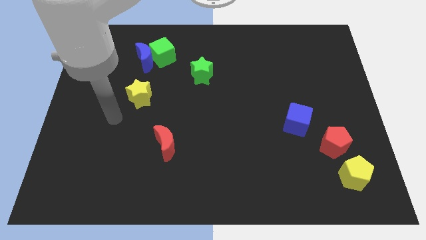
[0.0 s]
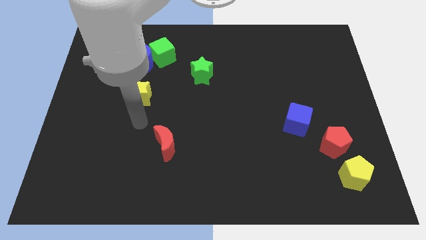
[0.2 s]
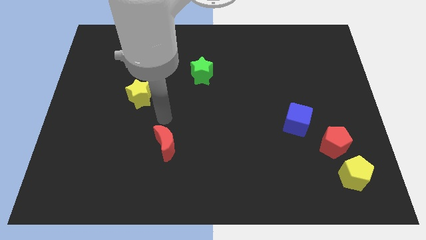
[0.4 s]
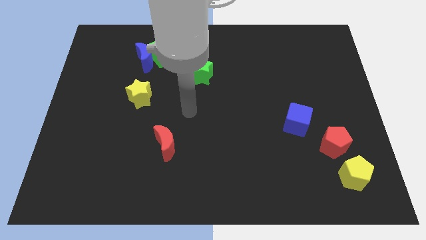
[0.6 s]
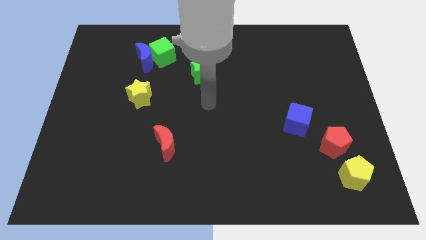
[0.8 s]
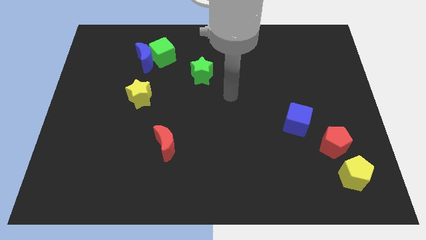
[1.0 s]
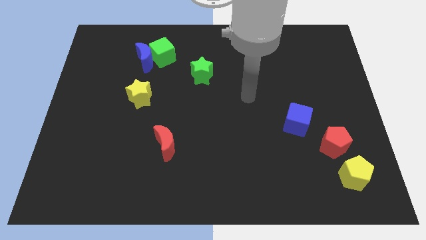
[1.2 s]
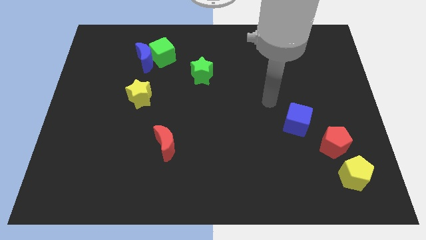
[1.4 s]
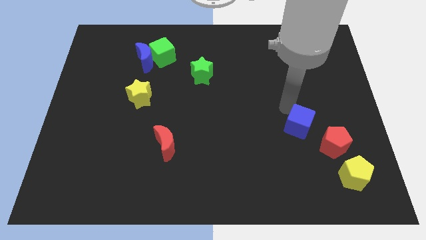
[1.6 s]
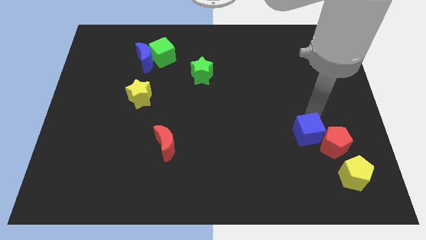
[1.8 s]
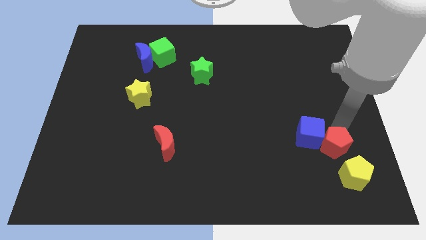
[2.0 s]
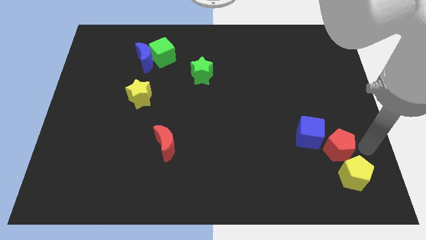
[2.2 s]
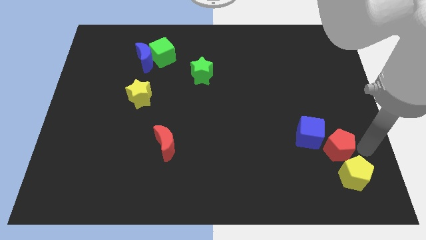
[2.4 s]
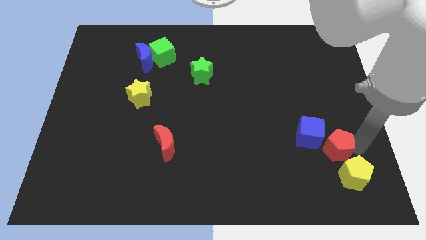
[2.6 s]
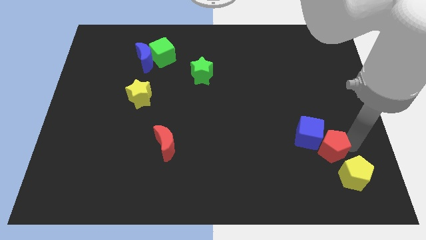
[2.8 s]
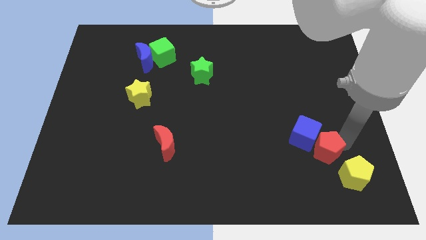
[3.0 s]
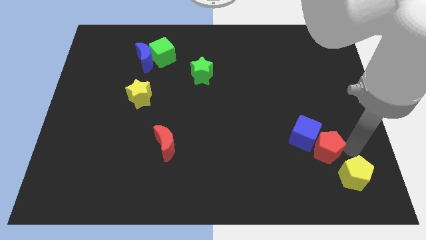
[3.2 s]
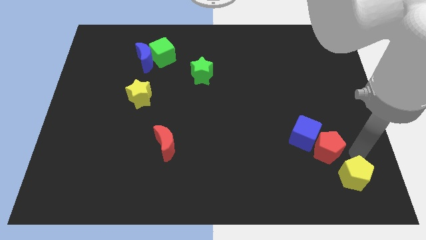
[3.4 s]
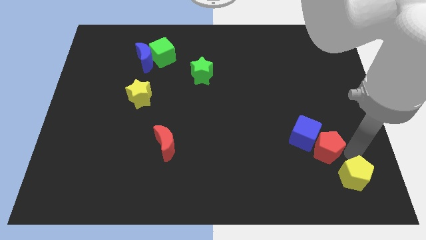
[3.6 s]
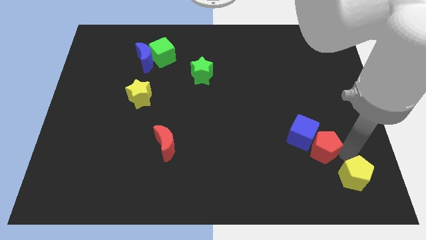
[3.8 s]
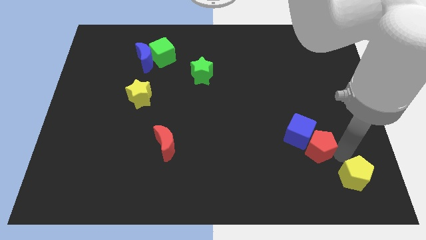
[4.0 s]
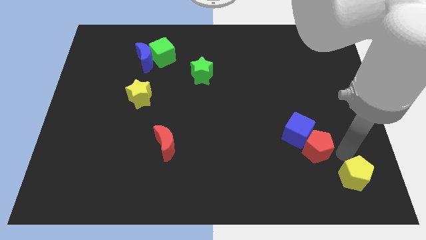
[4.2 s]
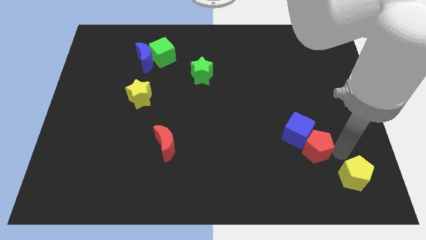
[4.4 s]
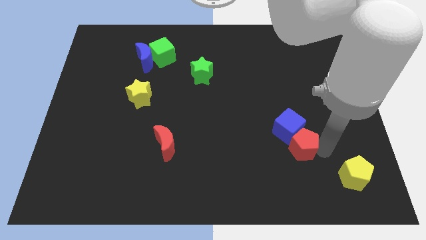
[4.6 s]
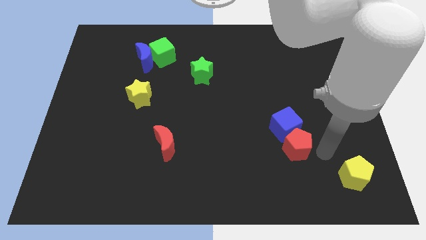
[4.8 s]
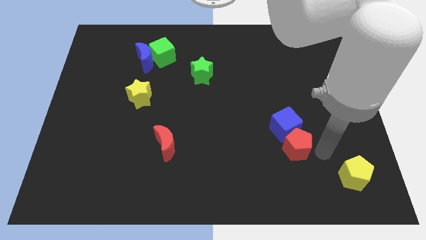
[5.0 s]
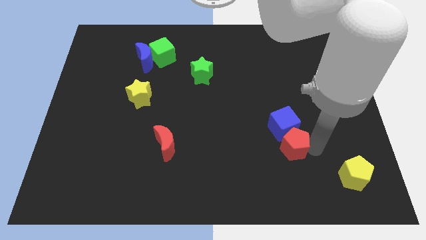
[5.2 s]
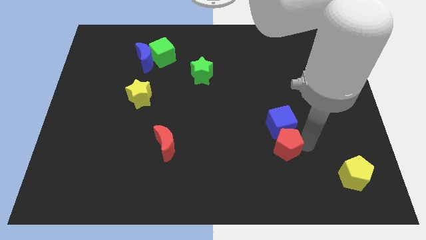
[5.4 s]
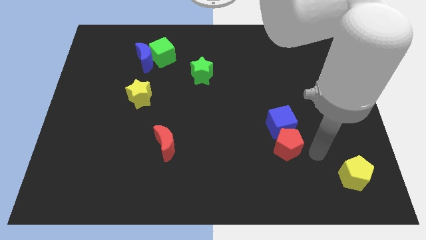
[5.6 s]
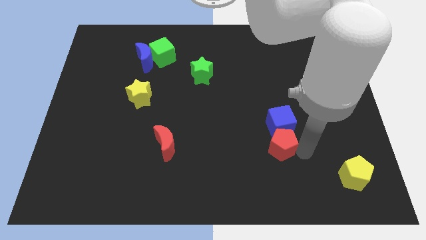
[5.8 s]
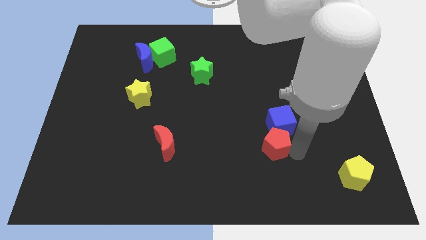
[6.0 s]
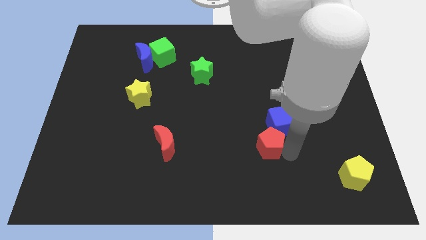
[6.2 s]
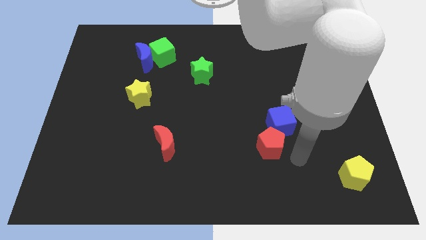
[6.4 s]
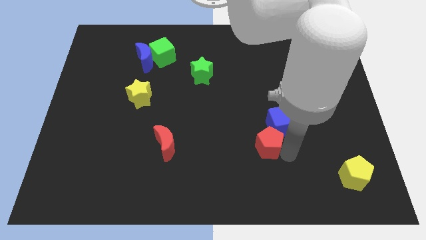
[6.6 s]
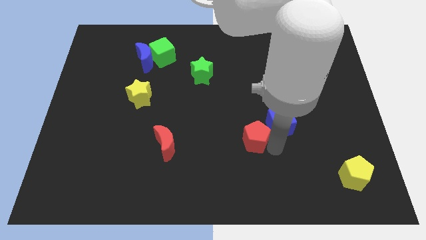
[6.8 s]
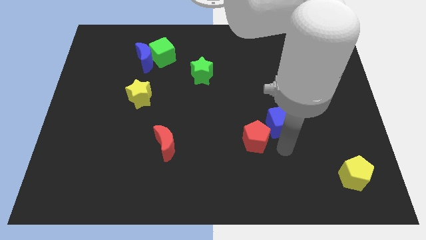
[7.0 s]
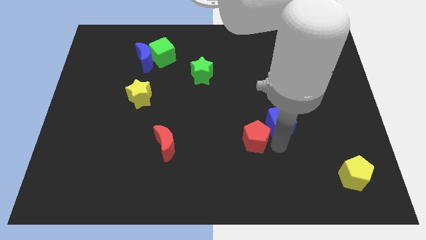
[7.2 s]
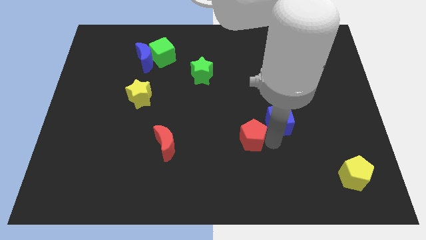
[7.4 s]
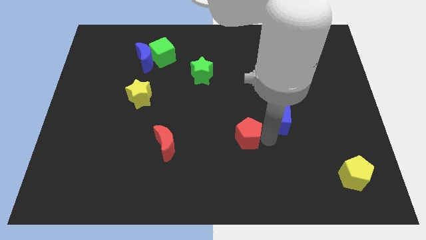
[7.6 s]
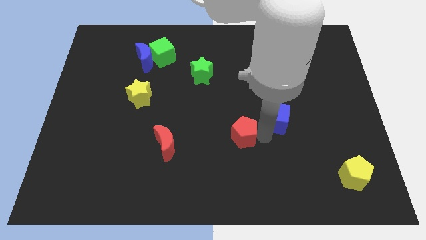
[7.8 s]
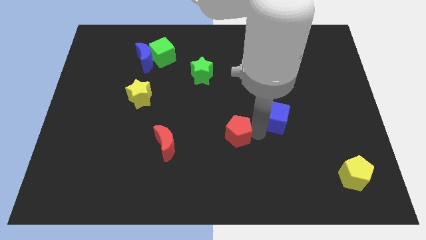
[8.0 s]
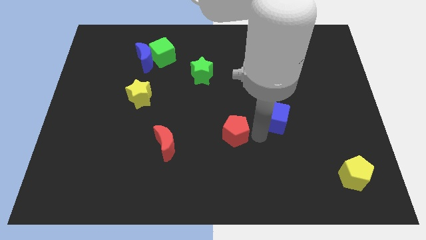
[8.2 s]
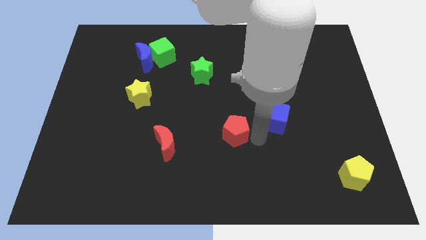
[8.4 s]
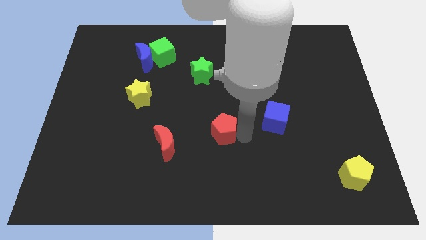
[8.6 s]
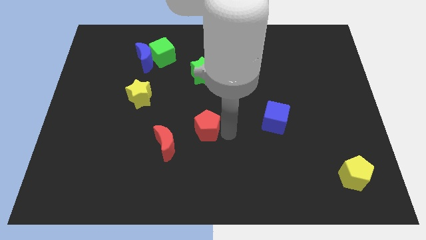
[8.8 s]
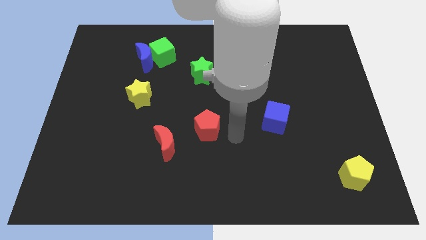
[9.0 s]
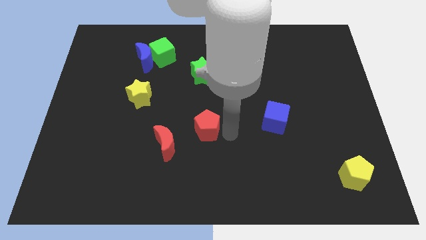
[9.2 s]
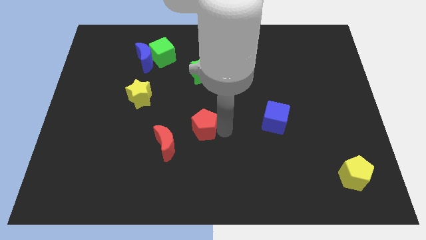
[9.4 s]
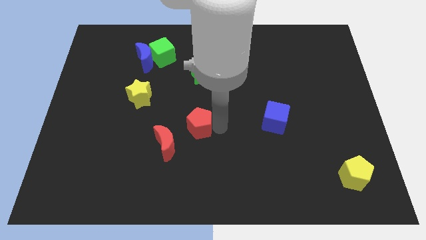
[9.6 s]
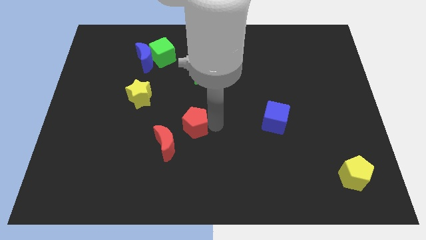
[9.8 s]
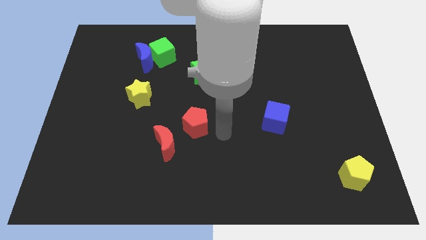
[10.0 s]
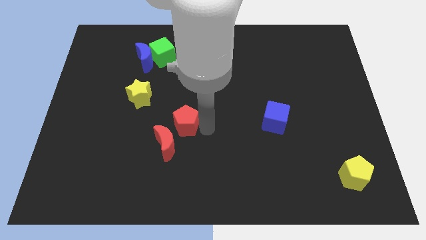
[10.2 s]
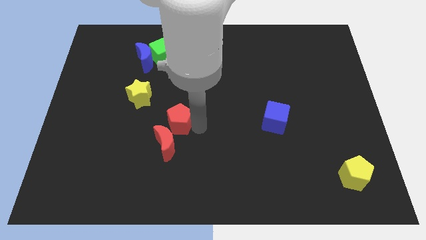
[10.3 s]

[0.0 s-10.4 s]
put the red pentagon to the bottom right of the yellow star

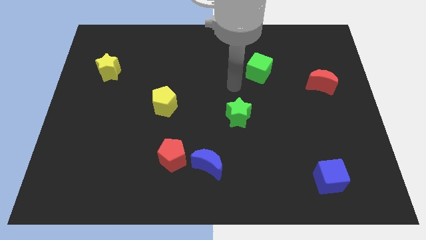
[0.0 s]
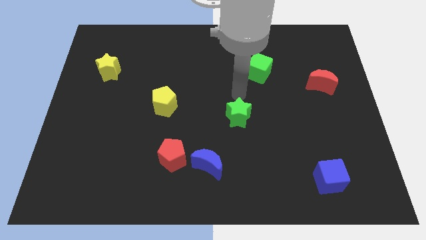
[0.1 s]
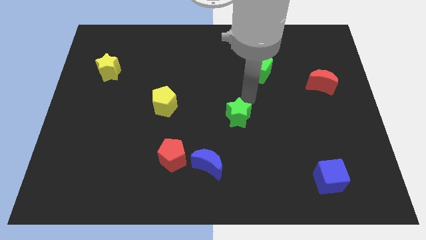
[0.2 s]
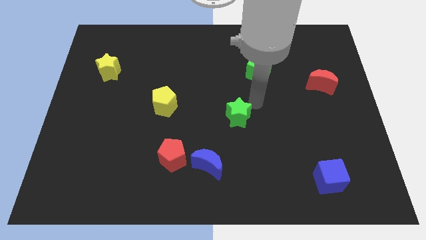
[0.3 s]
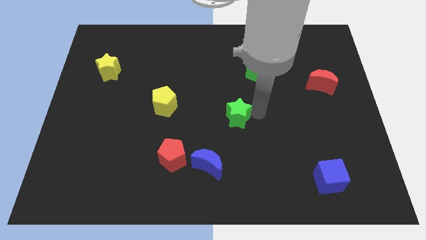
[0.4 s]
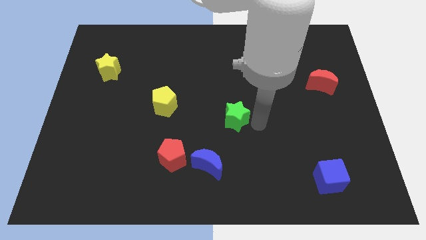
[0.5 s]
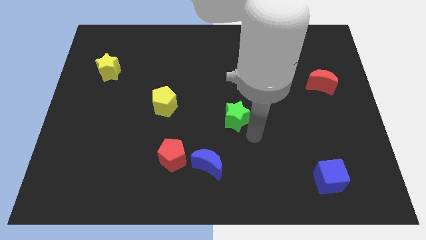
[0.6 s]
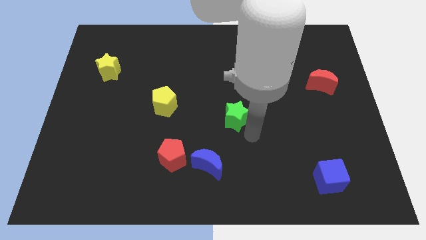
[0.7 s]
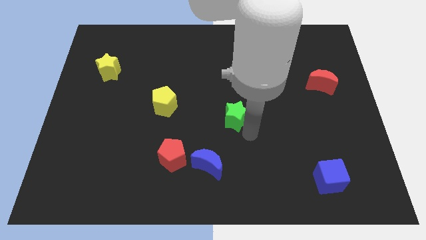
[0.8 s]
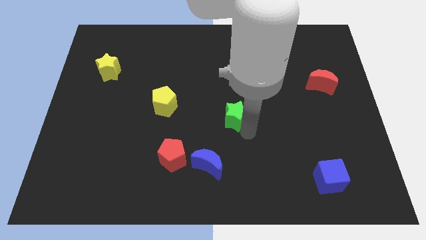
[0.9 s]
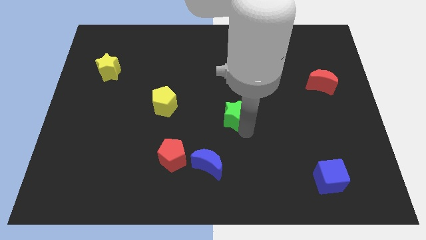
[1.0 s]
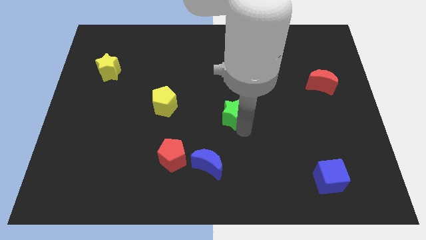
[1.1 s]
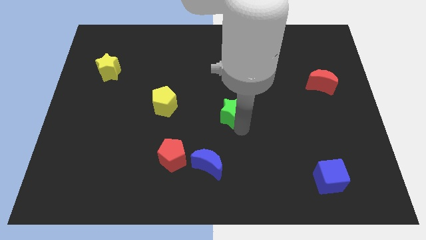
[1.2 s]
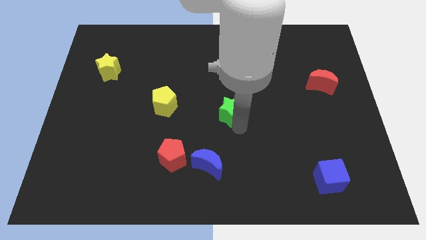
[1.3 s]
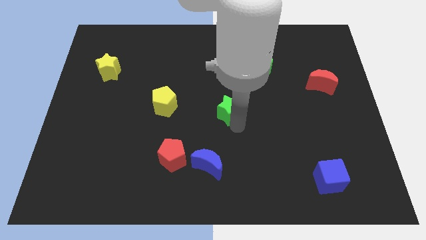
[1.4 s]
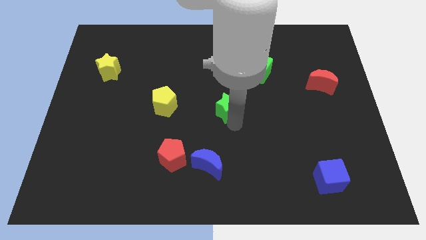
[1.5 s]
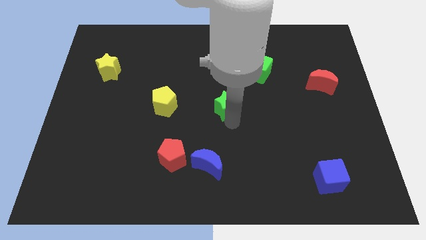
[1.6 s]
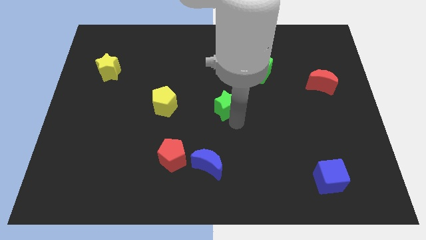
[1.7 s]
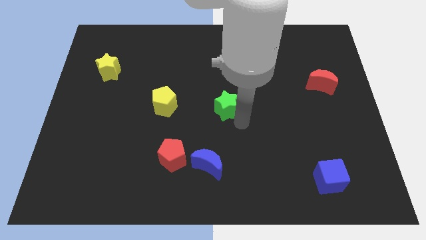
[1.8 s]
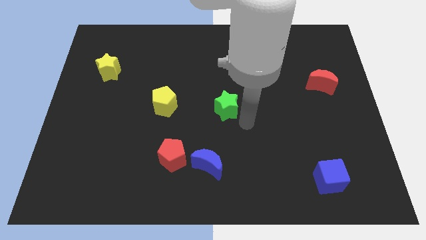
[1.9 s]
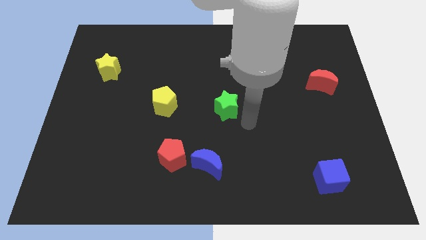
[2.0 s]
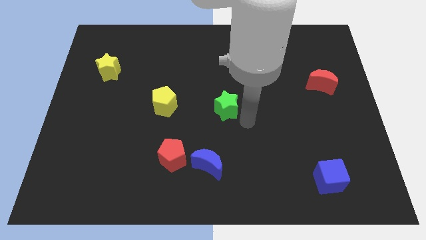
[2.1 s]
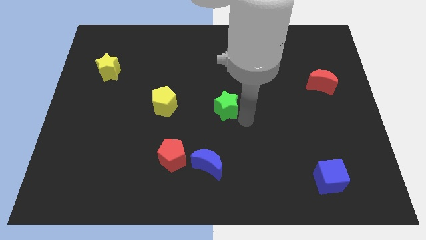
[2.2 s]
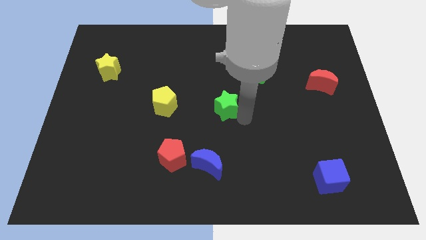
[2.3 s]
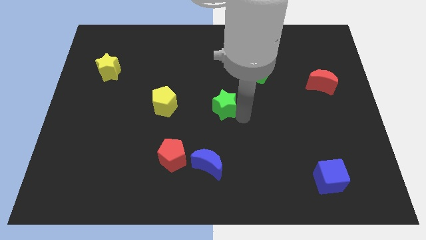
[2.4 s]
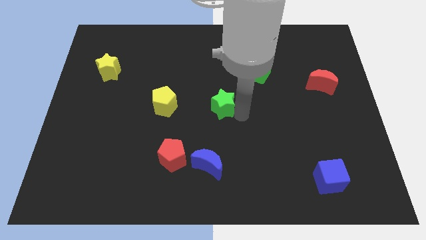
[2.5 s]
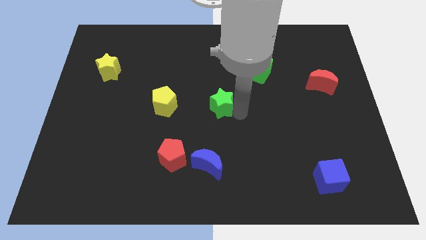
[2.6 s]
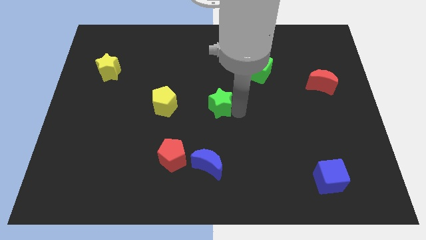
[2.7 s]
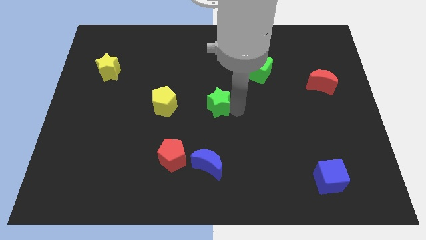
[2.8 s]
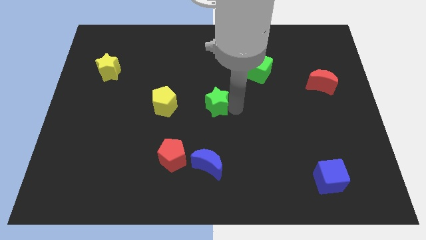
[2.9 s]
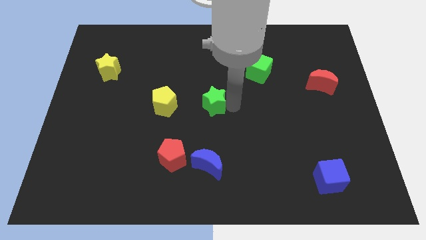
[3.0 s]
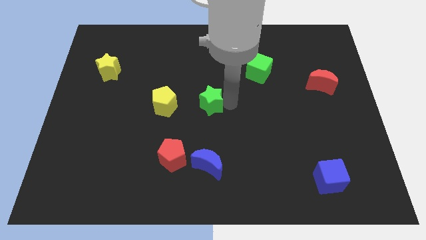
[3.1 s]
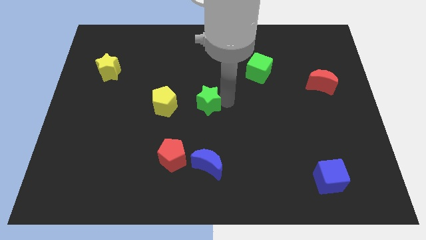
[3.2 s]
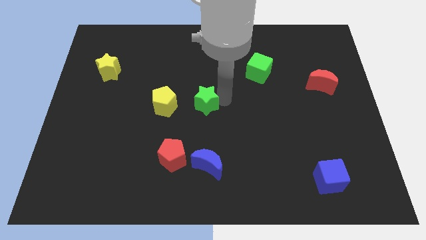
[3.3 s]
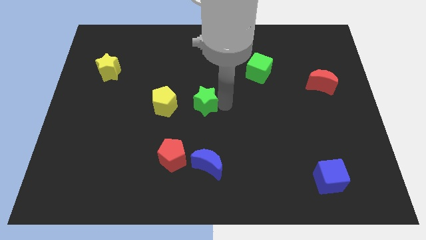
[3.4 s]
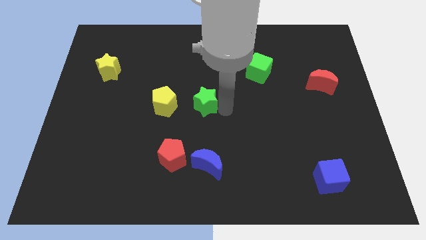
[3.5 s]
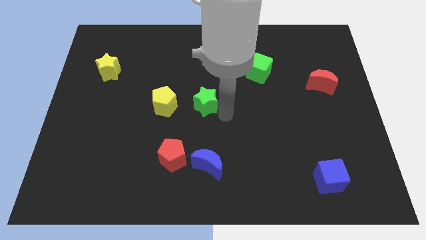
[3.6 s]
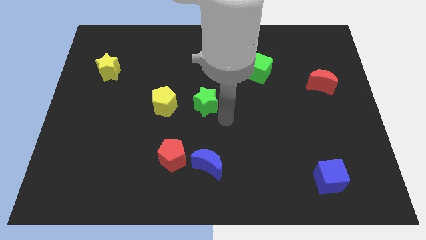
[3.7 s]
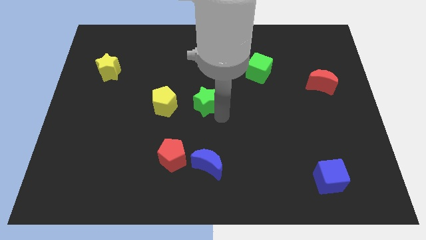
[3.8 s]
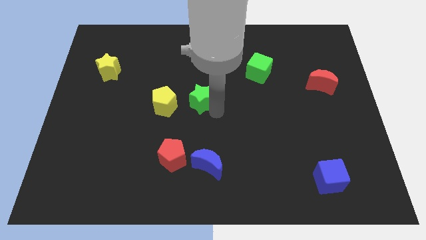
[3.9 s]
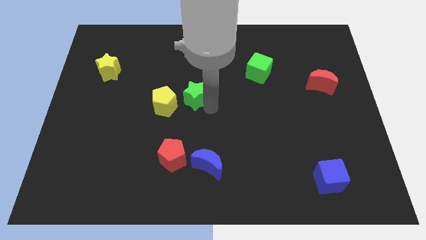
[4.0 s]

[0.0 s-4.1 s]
move the green star diagonally up and to the right of the yellow pentagon
